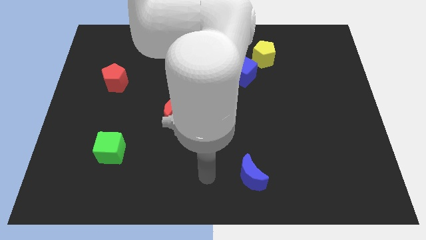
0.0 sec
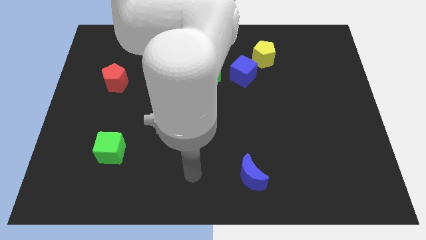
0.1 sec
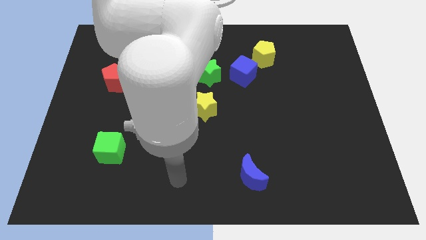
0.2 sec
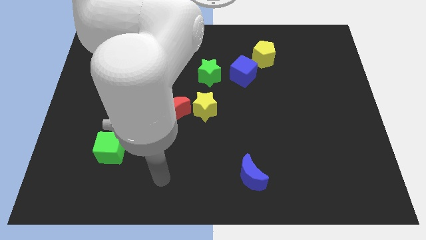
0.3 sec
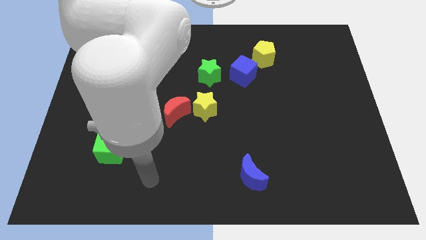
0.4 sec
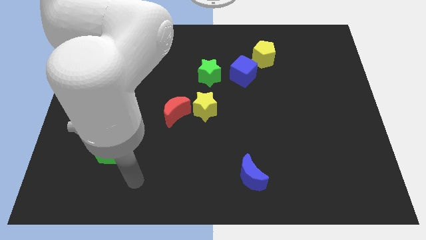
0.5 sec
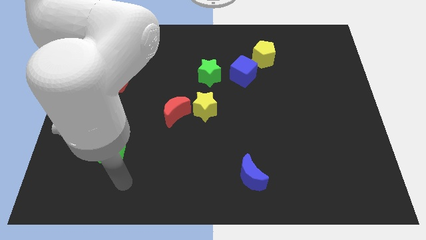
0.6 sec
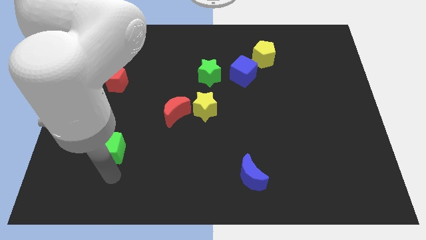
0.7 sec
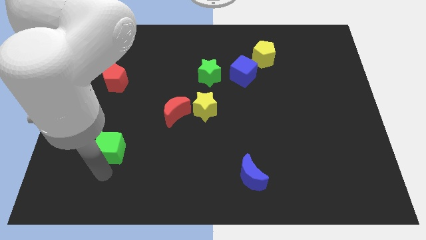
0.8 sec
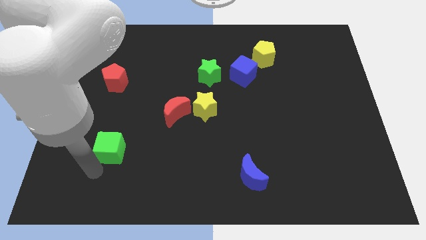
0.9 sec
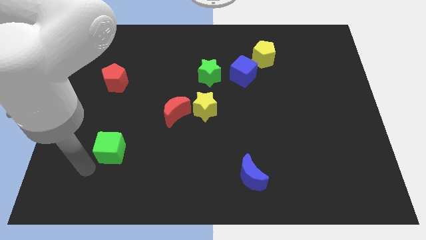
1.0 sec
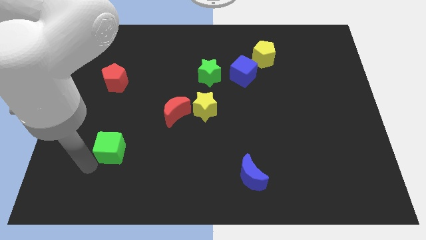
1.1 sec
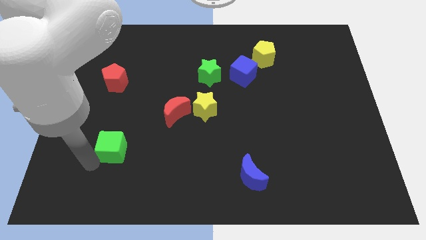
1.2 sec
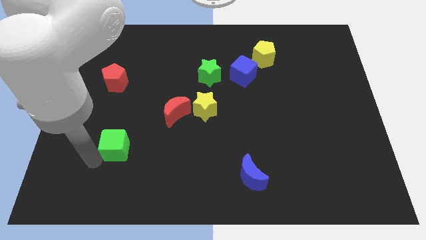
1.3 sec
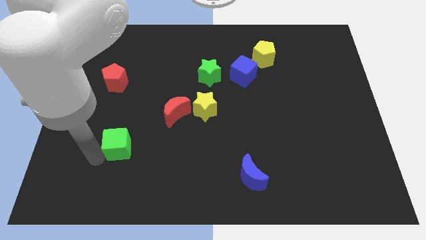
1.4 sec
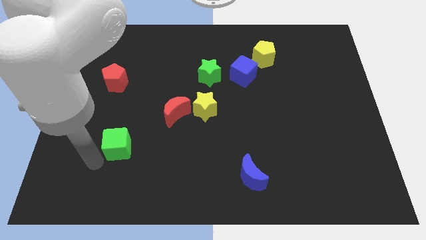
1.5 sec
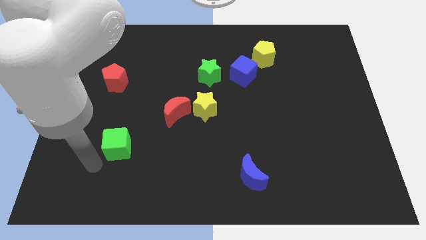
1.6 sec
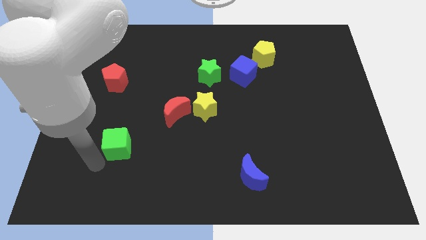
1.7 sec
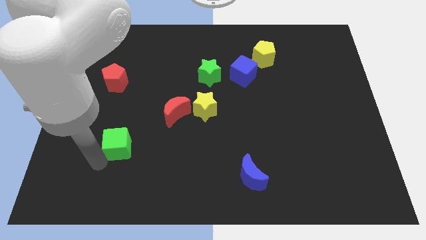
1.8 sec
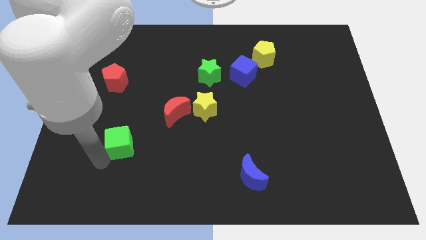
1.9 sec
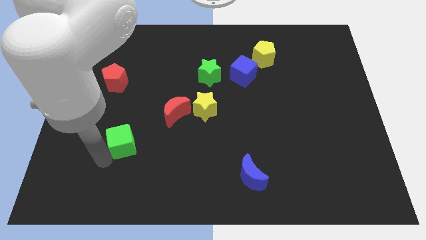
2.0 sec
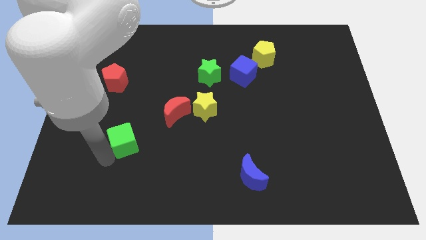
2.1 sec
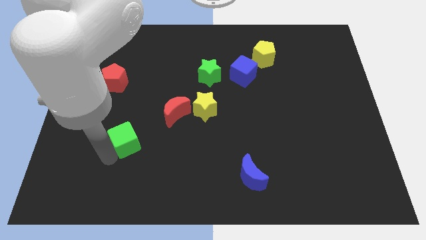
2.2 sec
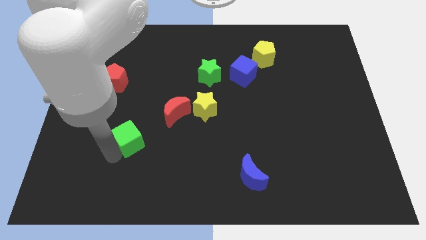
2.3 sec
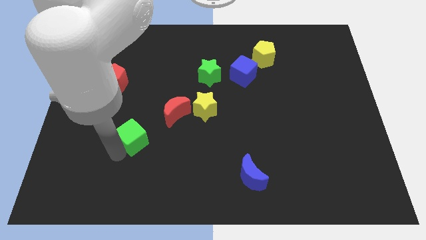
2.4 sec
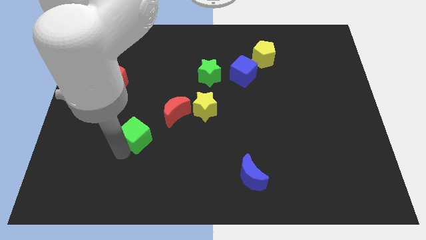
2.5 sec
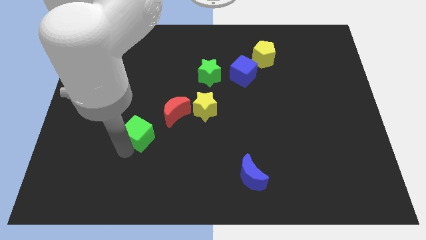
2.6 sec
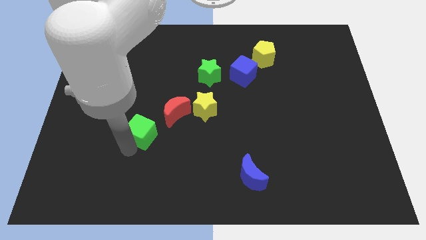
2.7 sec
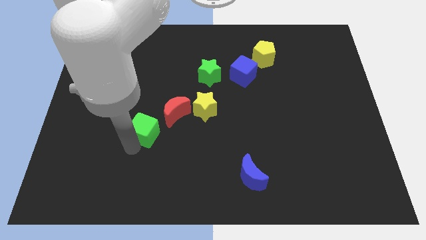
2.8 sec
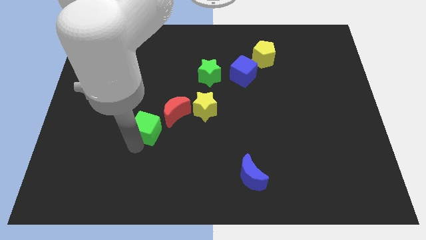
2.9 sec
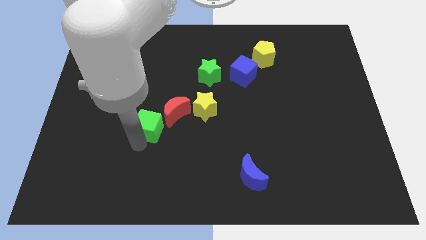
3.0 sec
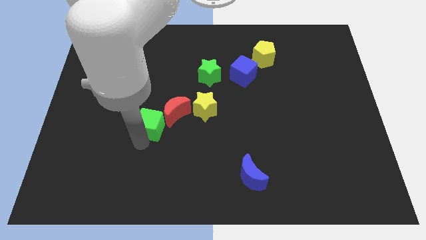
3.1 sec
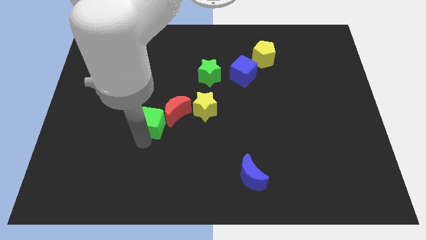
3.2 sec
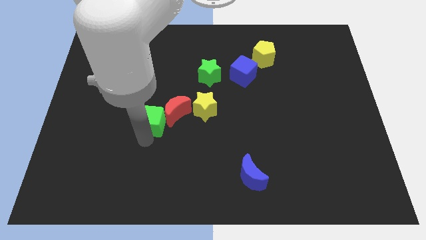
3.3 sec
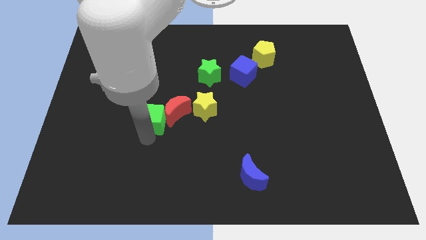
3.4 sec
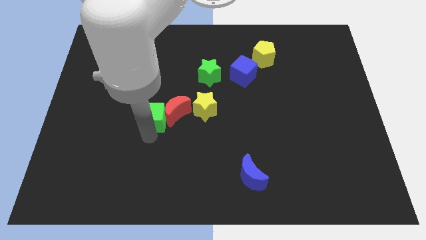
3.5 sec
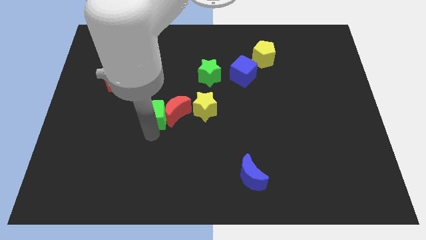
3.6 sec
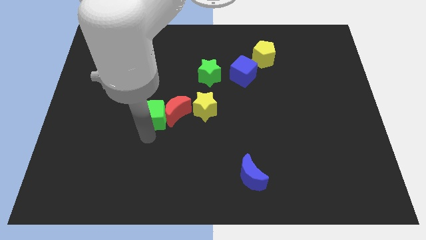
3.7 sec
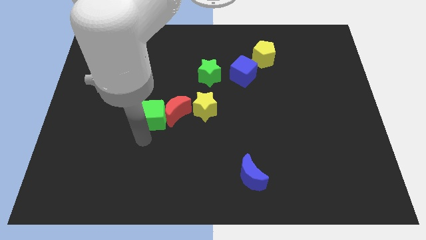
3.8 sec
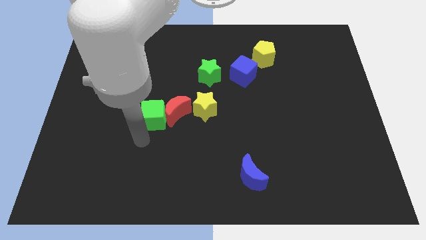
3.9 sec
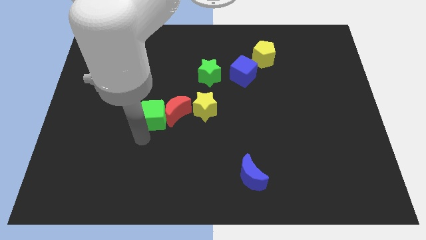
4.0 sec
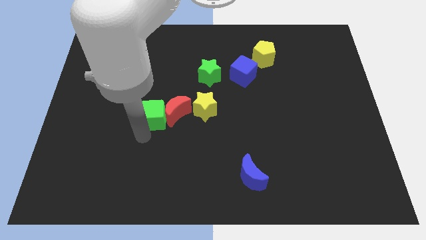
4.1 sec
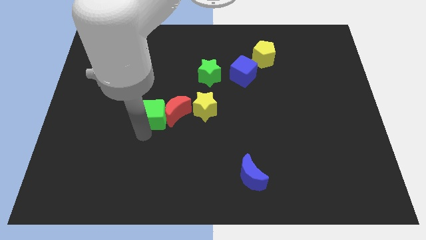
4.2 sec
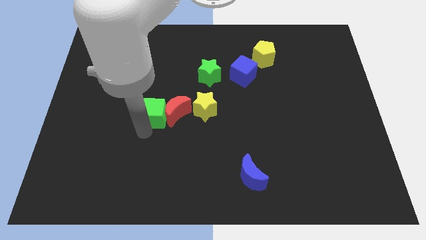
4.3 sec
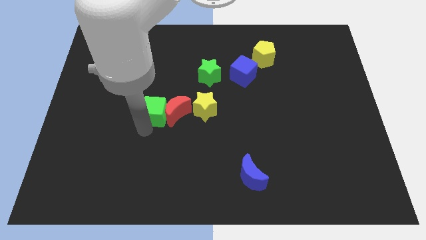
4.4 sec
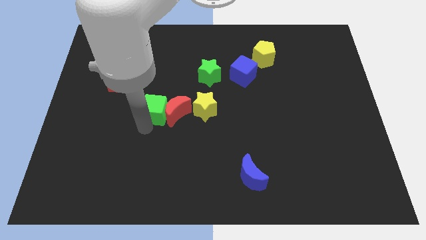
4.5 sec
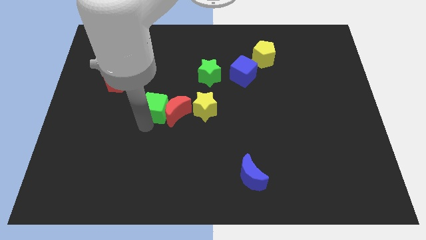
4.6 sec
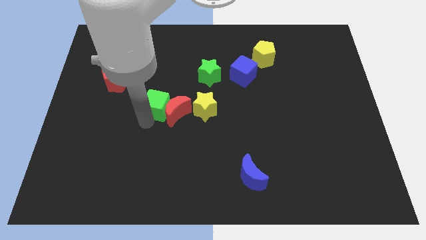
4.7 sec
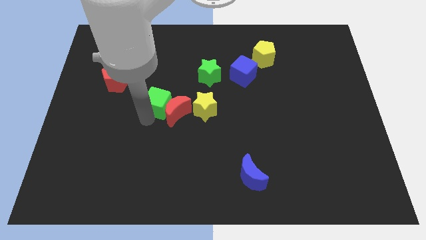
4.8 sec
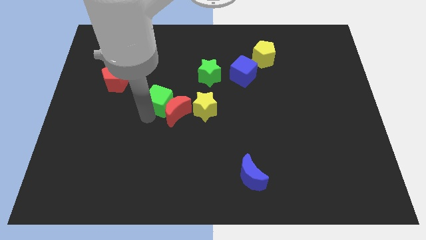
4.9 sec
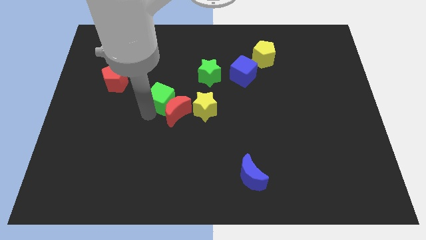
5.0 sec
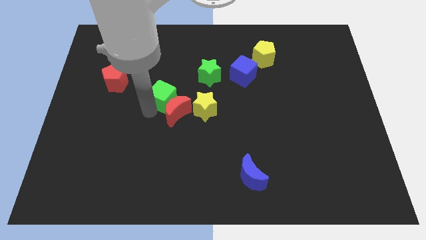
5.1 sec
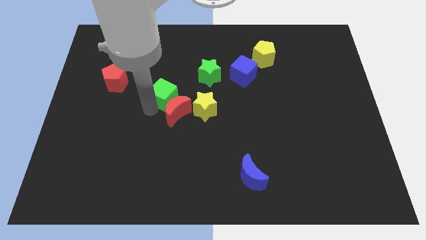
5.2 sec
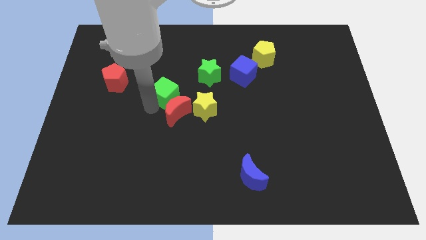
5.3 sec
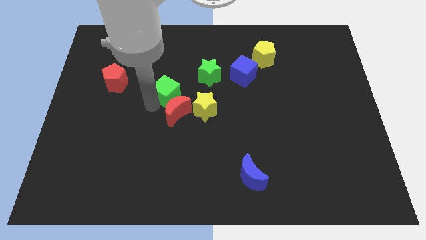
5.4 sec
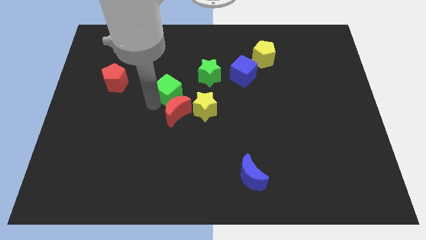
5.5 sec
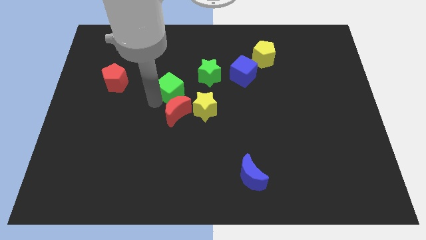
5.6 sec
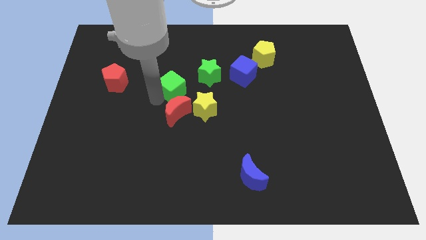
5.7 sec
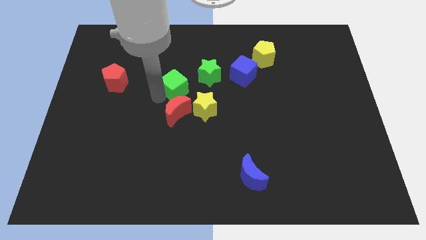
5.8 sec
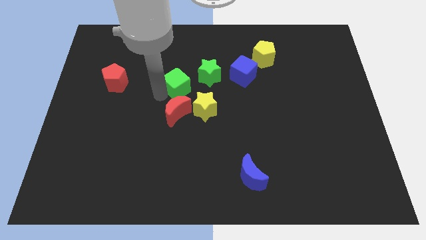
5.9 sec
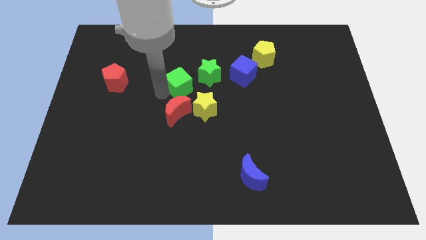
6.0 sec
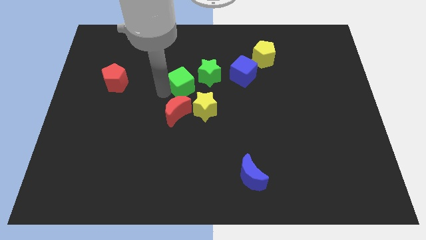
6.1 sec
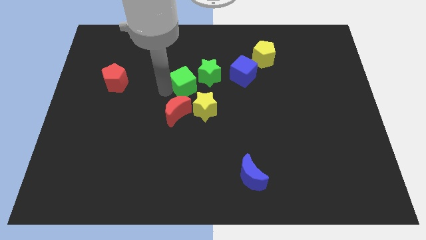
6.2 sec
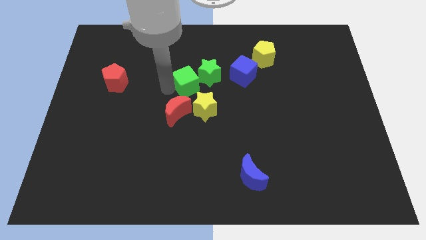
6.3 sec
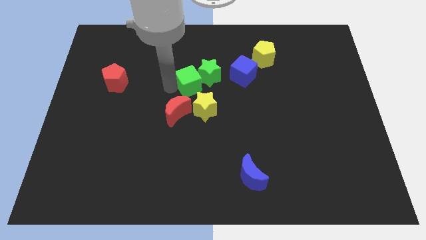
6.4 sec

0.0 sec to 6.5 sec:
move the green cube to the green star

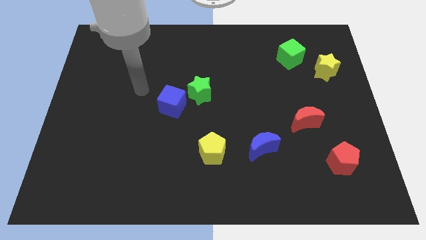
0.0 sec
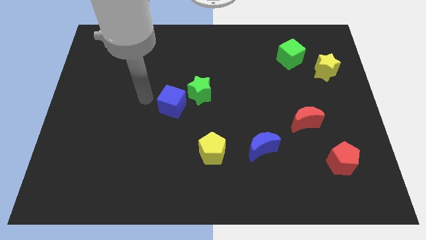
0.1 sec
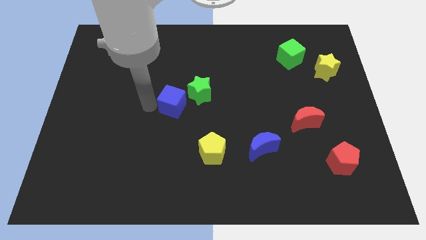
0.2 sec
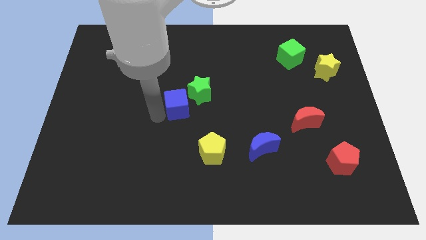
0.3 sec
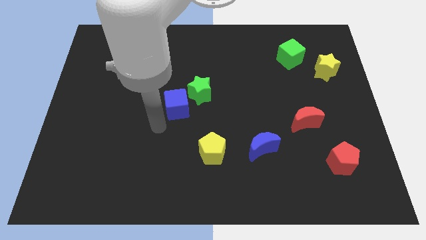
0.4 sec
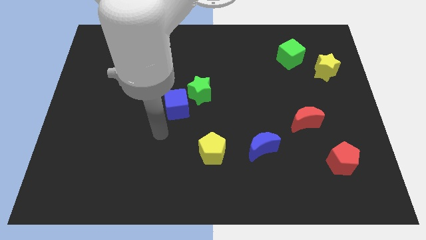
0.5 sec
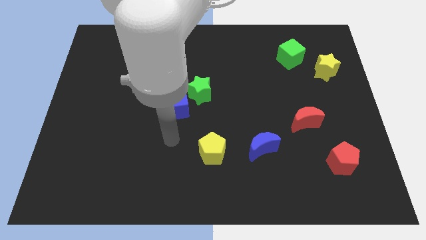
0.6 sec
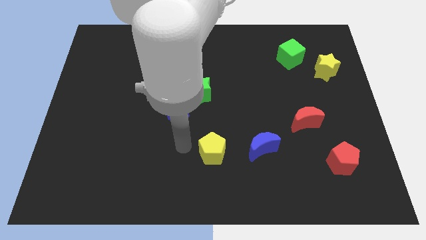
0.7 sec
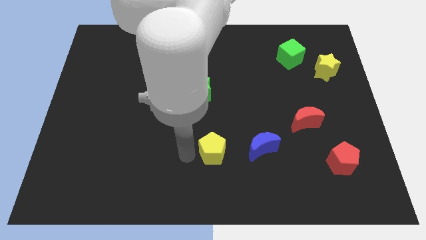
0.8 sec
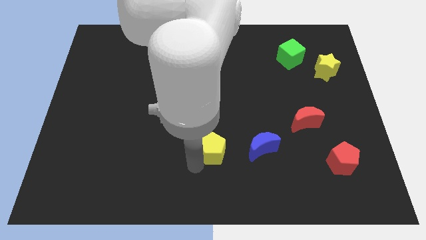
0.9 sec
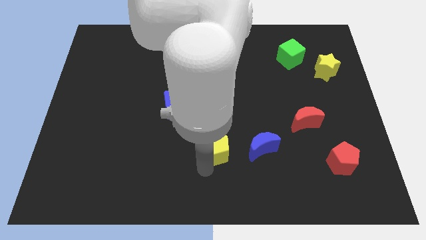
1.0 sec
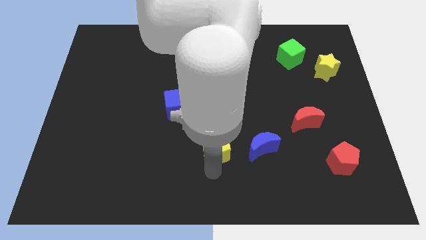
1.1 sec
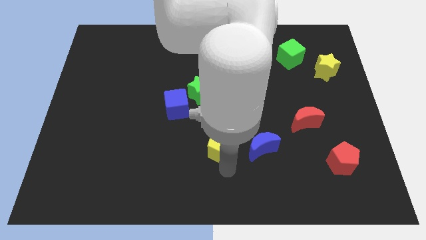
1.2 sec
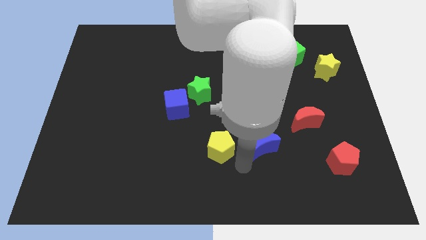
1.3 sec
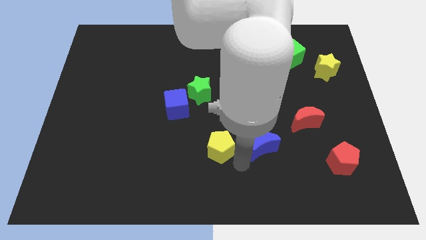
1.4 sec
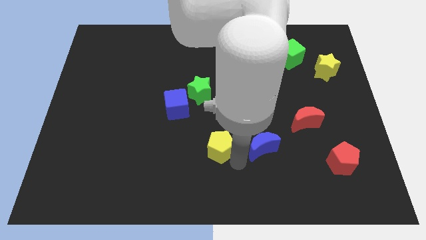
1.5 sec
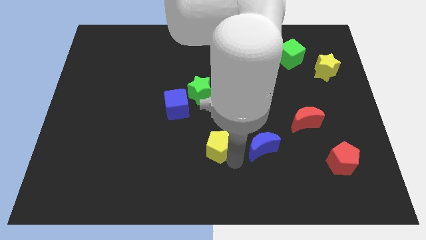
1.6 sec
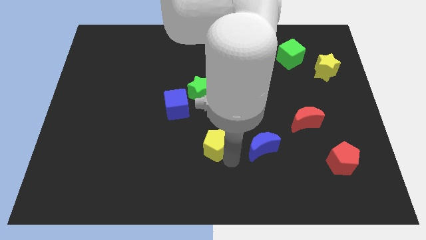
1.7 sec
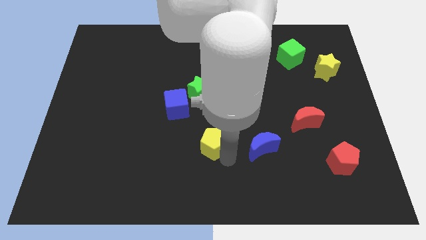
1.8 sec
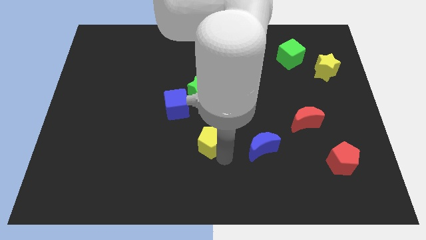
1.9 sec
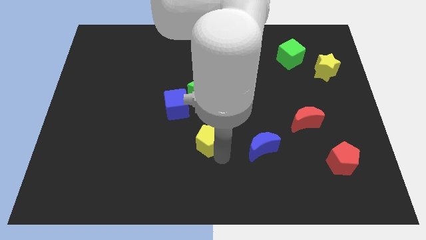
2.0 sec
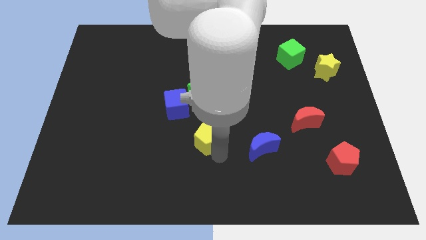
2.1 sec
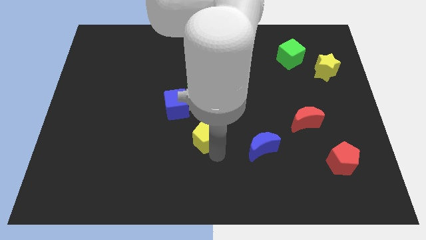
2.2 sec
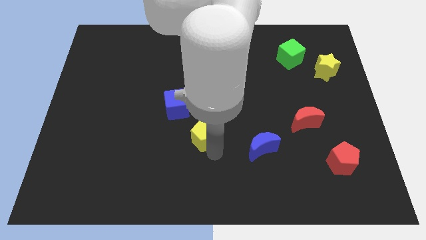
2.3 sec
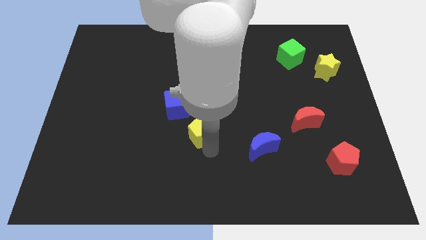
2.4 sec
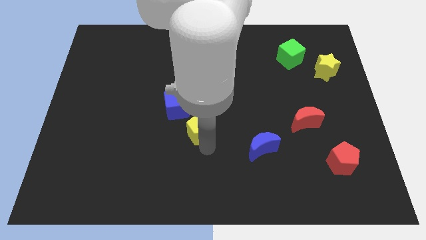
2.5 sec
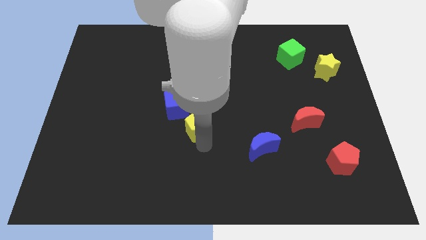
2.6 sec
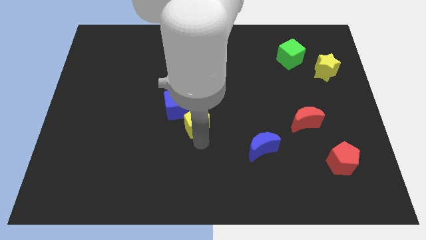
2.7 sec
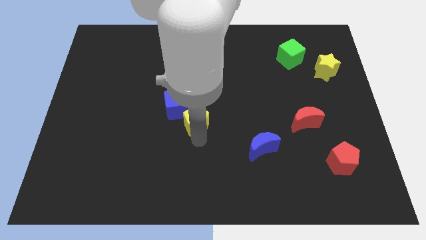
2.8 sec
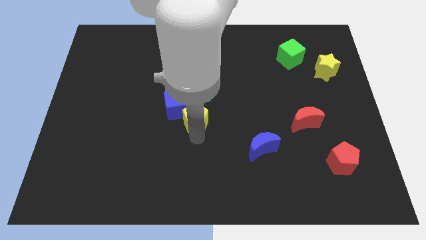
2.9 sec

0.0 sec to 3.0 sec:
put the yellow pentagon towards the blue cube
